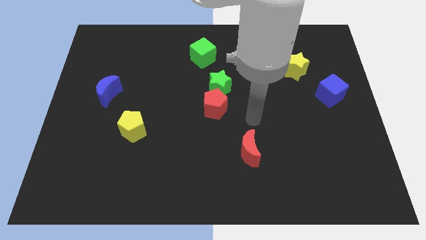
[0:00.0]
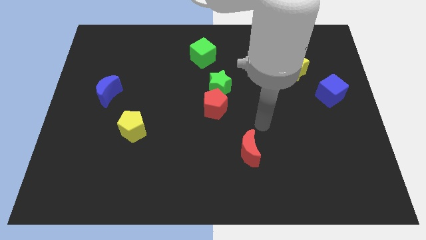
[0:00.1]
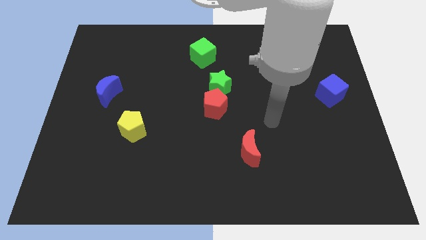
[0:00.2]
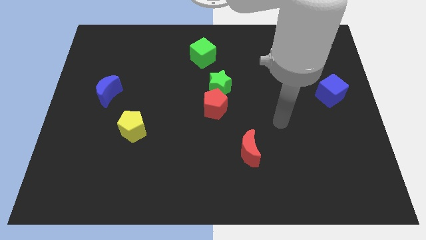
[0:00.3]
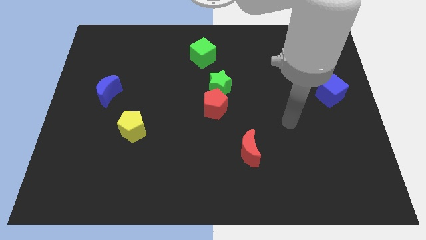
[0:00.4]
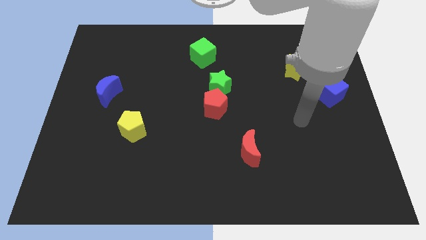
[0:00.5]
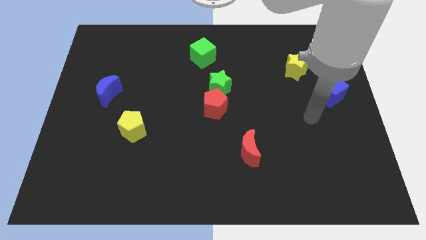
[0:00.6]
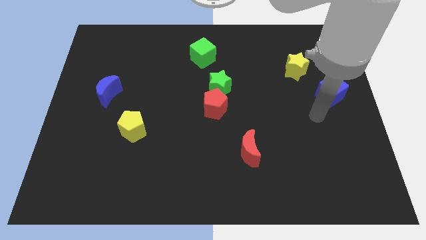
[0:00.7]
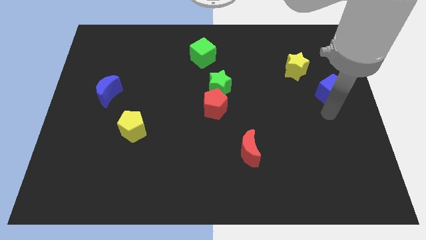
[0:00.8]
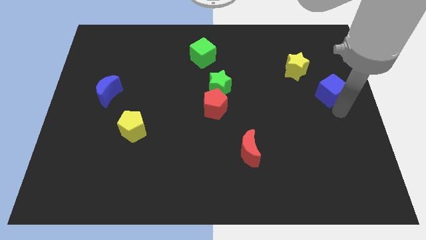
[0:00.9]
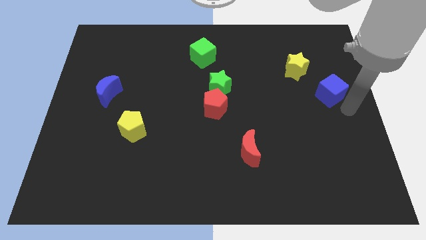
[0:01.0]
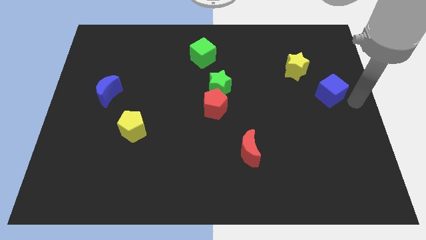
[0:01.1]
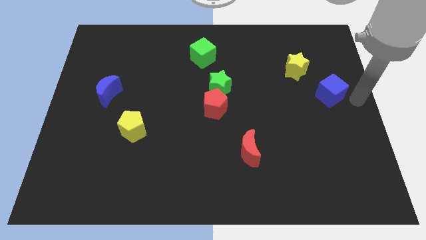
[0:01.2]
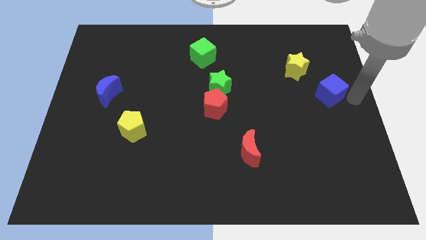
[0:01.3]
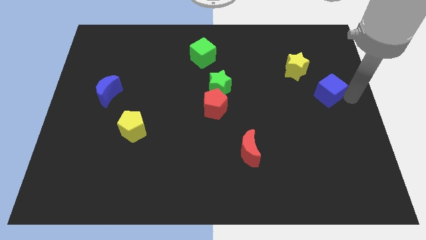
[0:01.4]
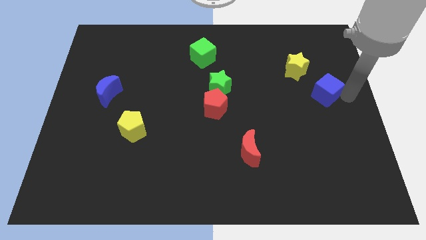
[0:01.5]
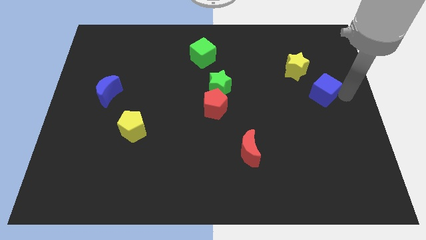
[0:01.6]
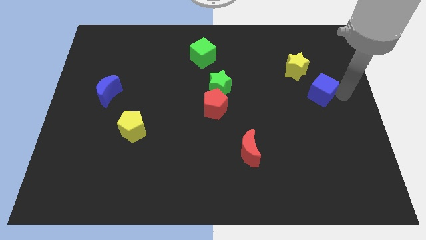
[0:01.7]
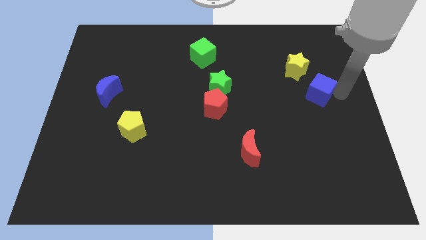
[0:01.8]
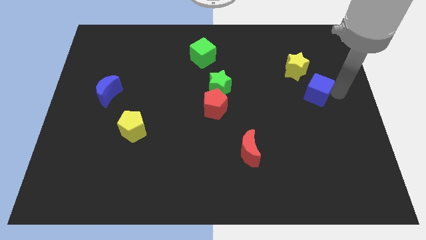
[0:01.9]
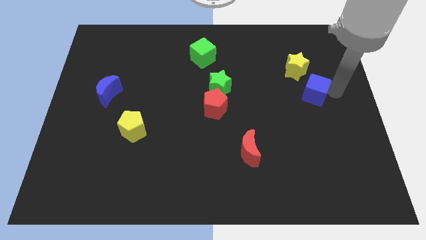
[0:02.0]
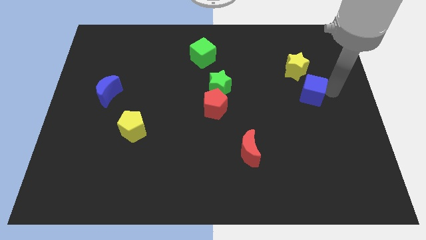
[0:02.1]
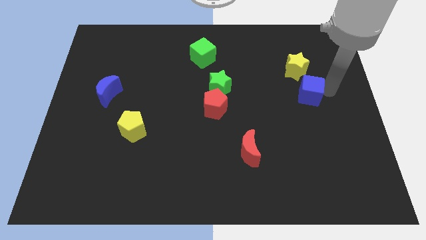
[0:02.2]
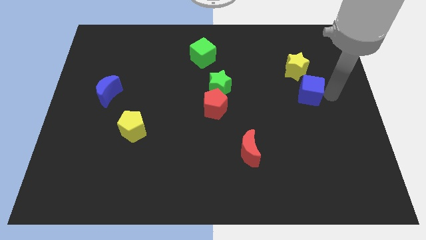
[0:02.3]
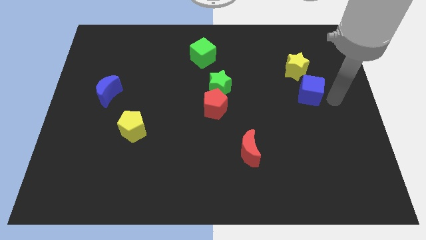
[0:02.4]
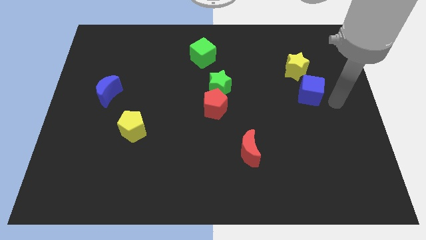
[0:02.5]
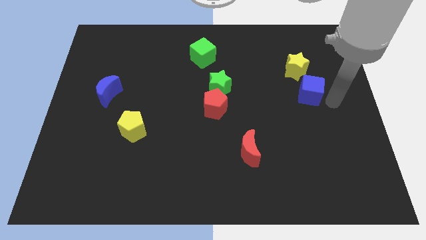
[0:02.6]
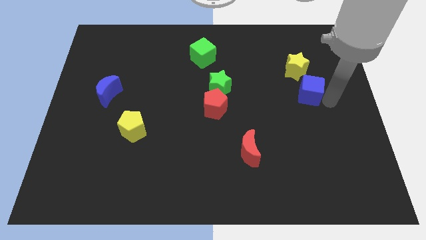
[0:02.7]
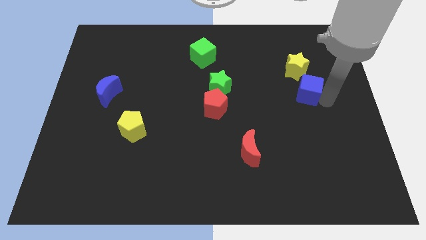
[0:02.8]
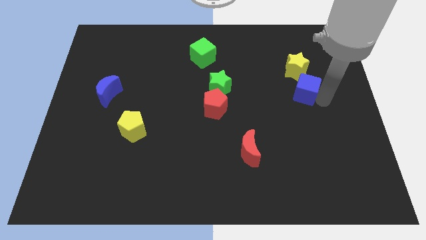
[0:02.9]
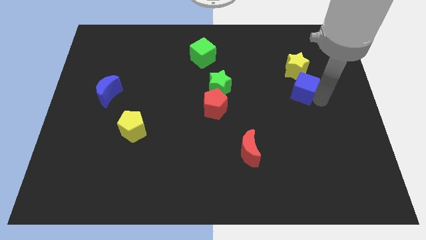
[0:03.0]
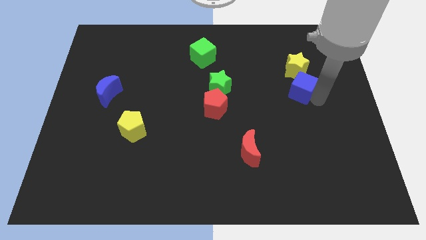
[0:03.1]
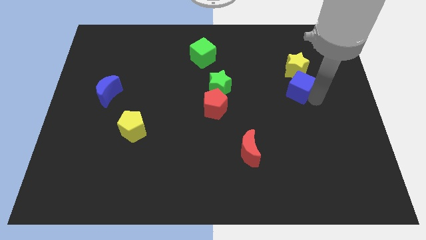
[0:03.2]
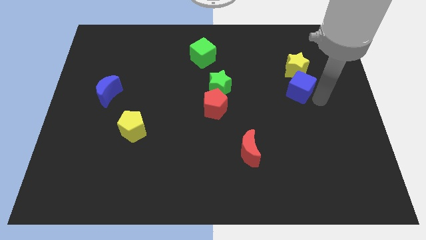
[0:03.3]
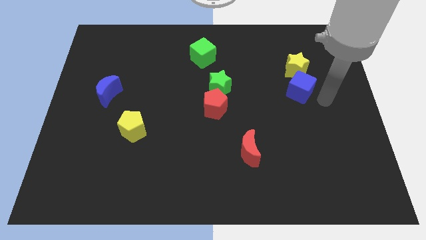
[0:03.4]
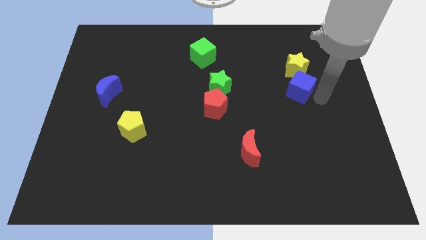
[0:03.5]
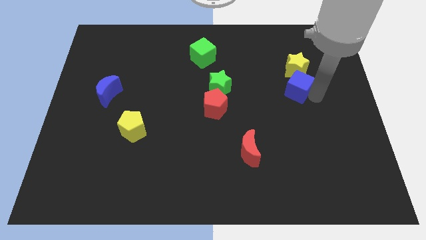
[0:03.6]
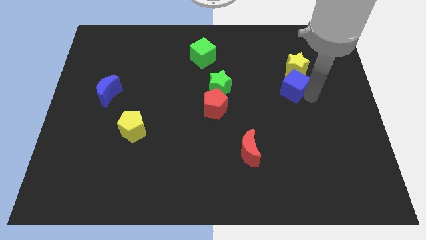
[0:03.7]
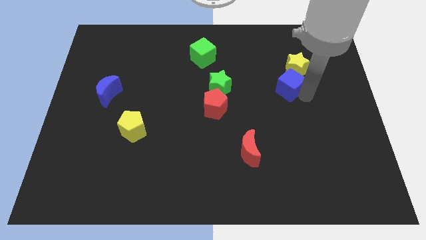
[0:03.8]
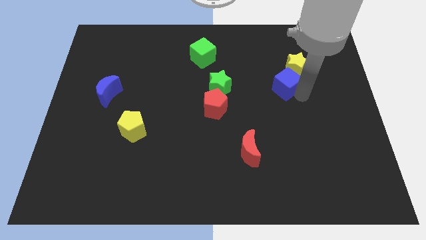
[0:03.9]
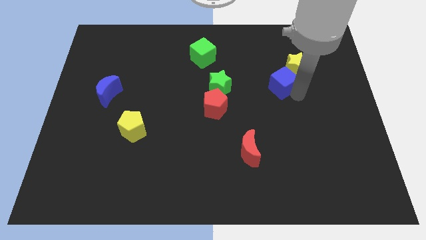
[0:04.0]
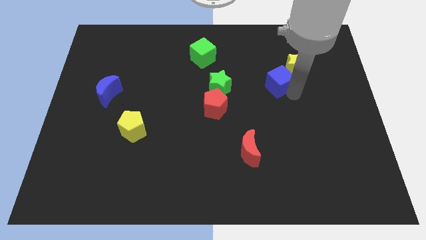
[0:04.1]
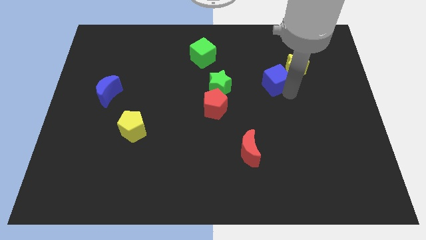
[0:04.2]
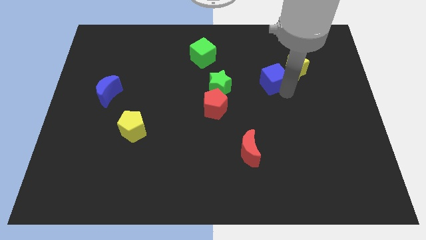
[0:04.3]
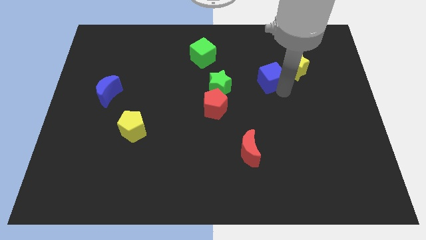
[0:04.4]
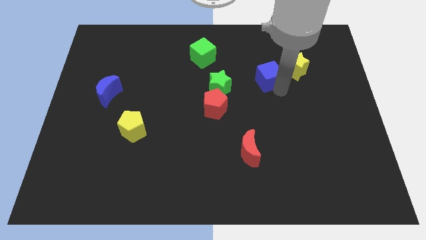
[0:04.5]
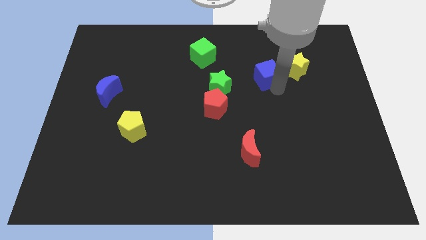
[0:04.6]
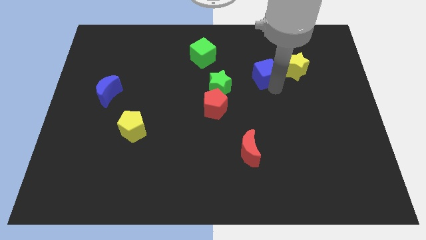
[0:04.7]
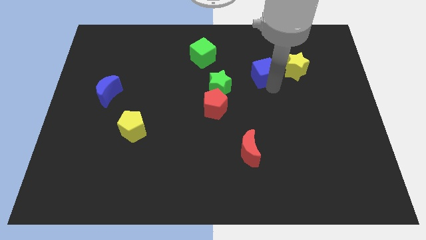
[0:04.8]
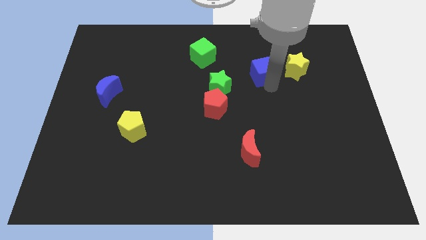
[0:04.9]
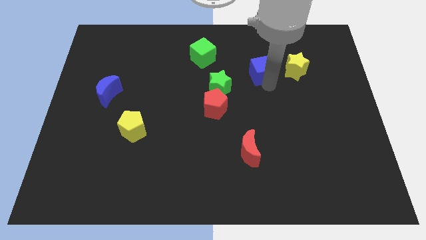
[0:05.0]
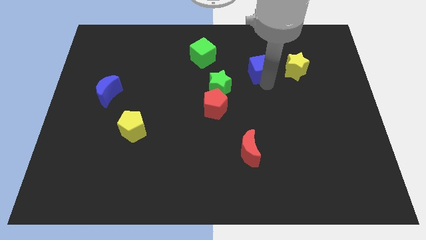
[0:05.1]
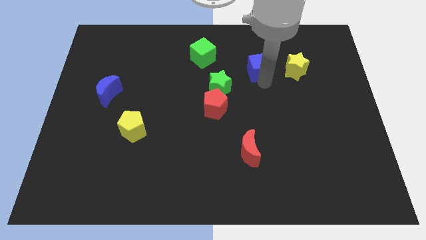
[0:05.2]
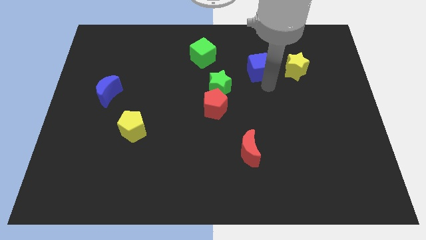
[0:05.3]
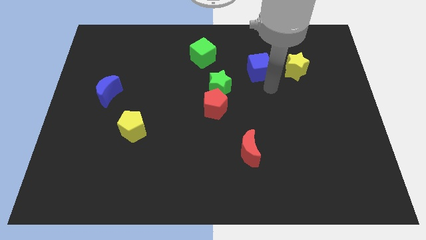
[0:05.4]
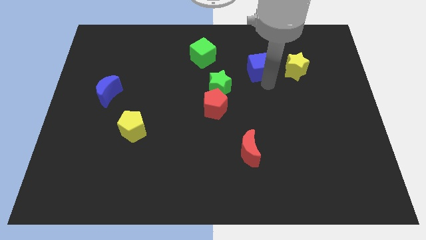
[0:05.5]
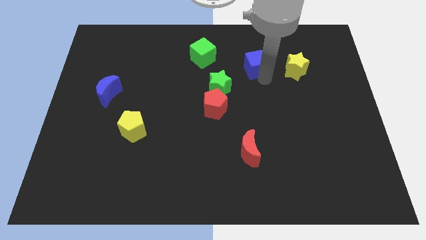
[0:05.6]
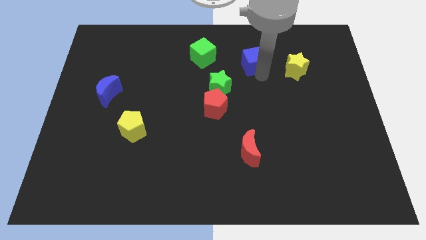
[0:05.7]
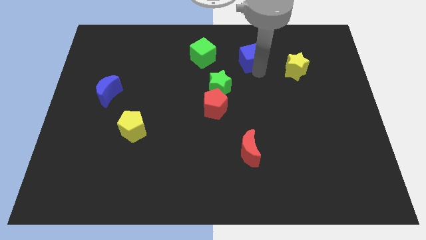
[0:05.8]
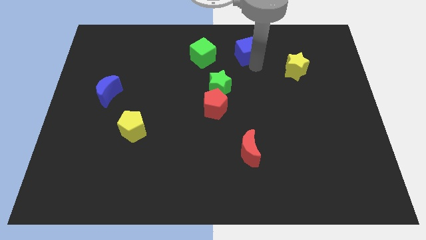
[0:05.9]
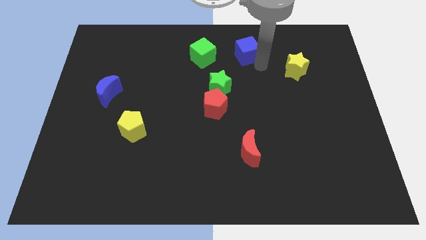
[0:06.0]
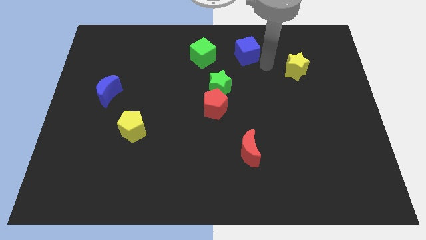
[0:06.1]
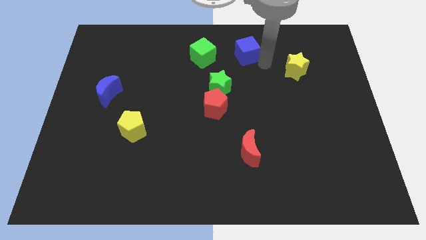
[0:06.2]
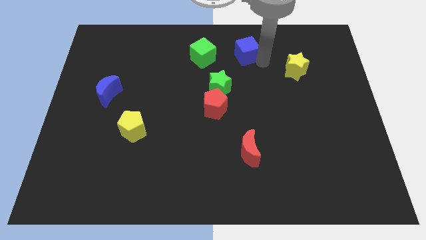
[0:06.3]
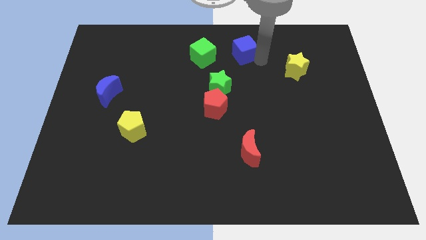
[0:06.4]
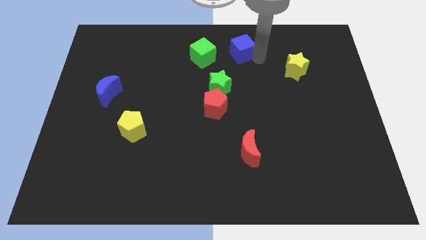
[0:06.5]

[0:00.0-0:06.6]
push the blue cube to the top side
